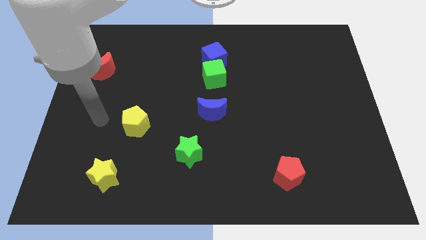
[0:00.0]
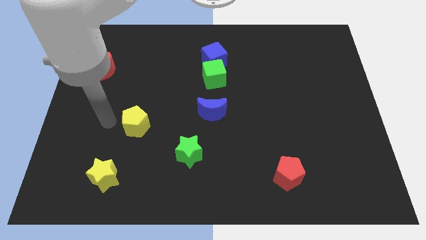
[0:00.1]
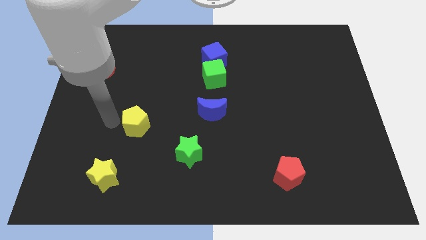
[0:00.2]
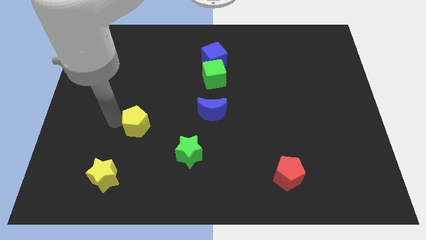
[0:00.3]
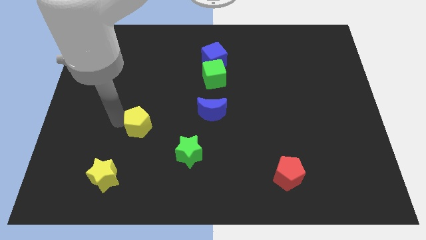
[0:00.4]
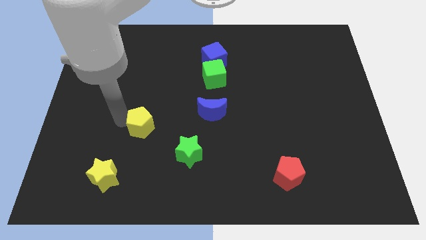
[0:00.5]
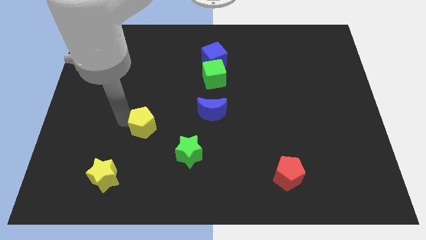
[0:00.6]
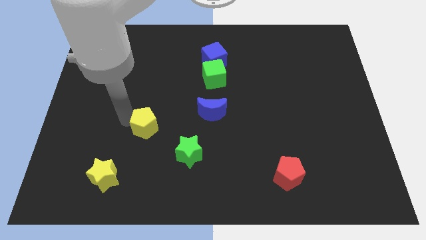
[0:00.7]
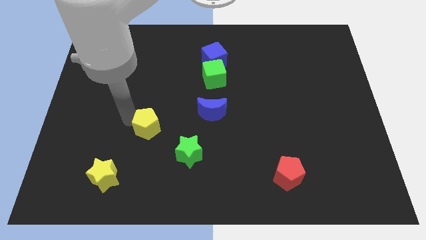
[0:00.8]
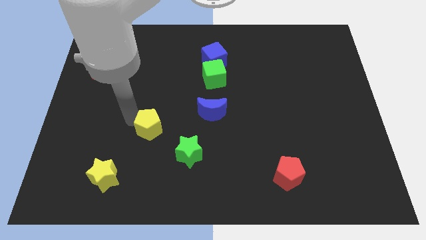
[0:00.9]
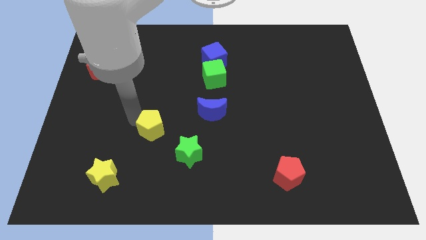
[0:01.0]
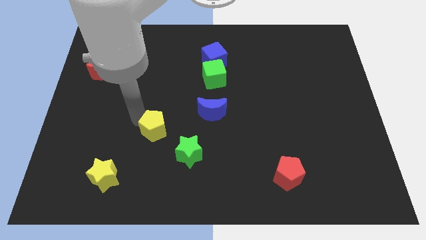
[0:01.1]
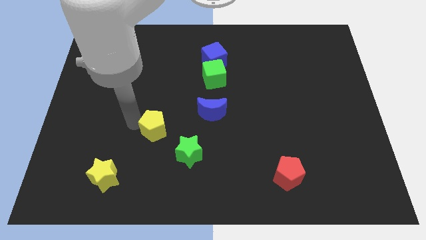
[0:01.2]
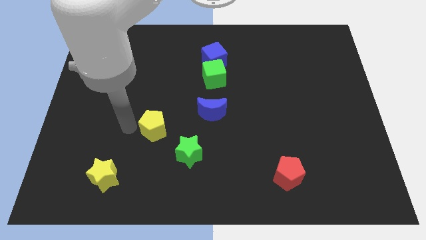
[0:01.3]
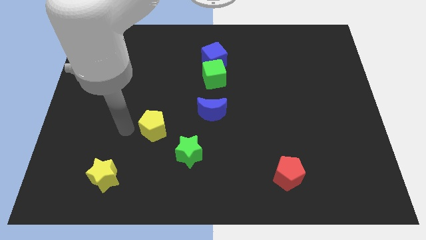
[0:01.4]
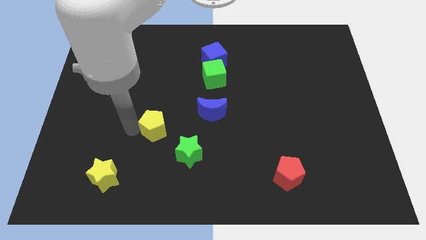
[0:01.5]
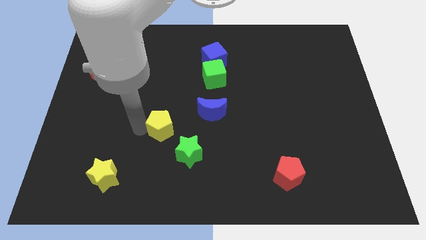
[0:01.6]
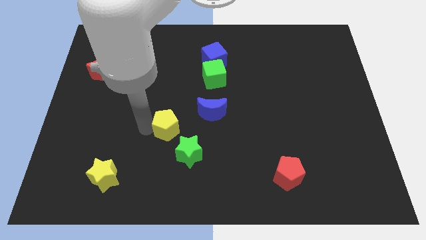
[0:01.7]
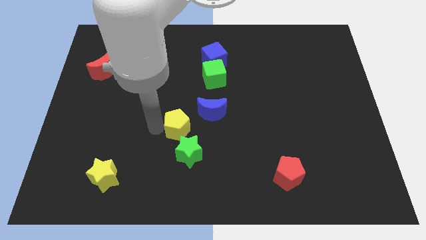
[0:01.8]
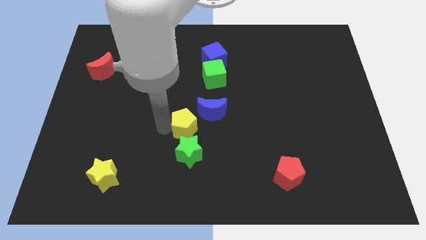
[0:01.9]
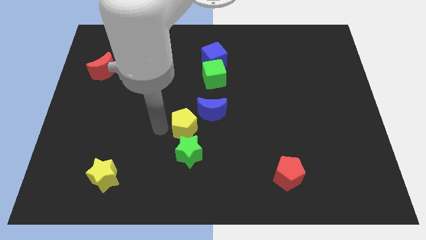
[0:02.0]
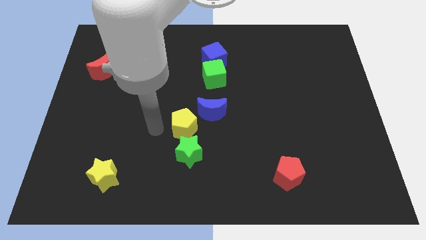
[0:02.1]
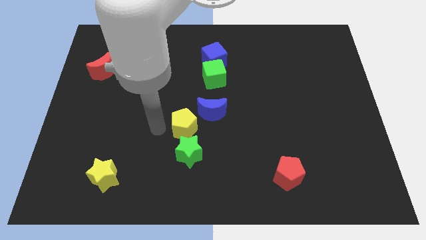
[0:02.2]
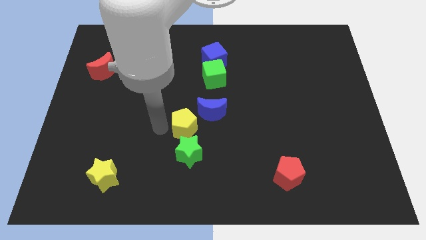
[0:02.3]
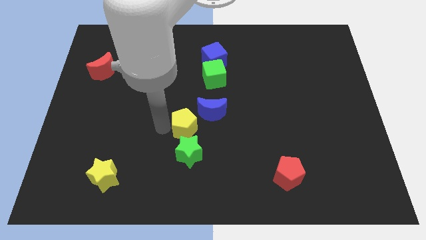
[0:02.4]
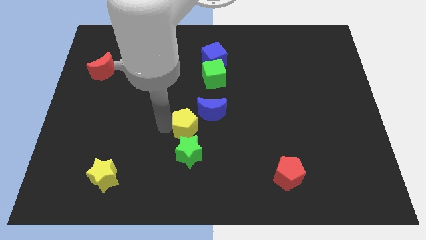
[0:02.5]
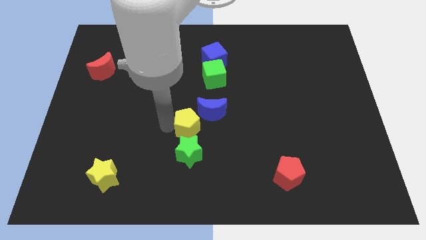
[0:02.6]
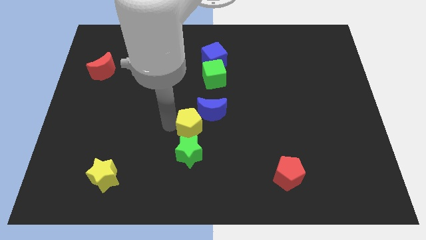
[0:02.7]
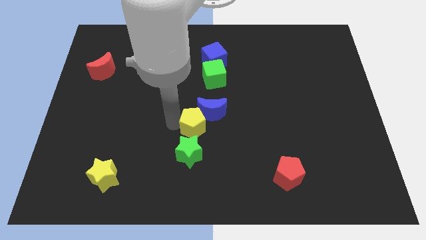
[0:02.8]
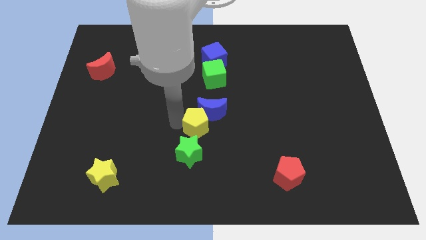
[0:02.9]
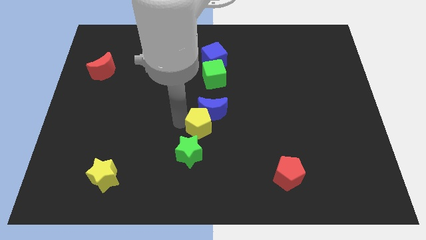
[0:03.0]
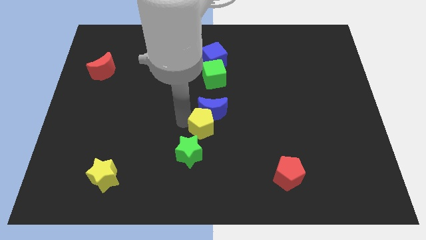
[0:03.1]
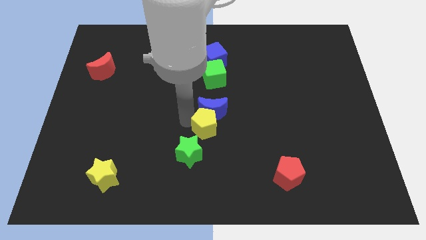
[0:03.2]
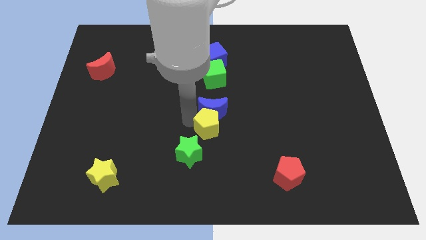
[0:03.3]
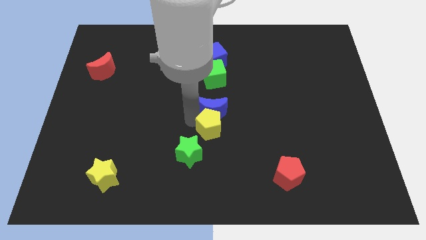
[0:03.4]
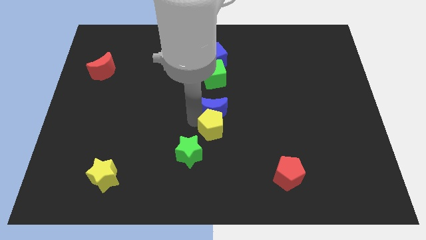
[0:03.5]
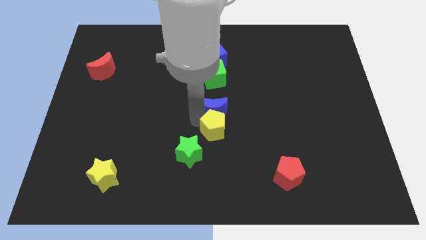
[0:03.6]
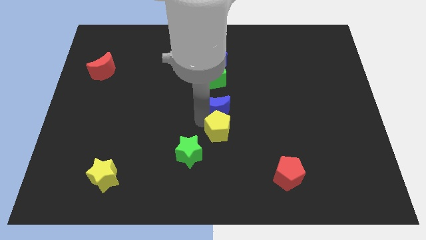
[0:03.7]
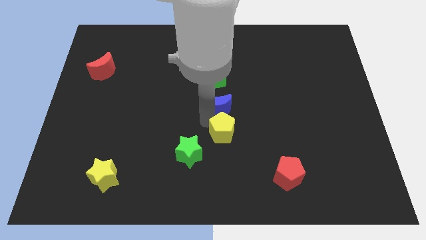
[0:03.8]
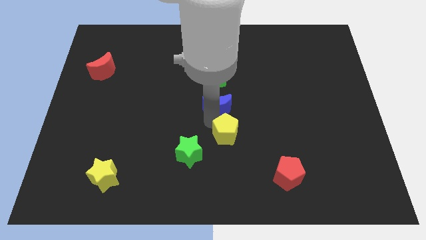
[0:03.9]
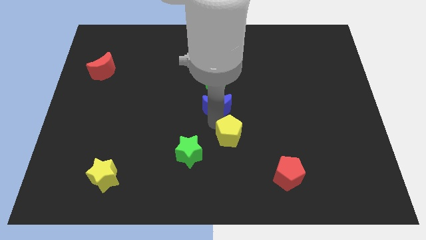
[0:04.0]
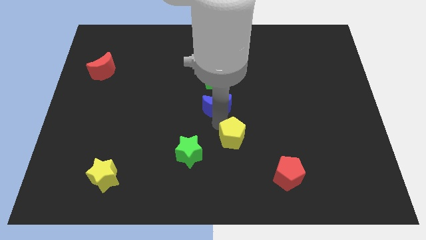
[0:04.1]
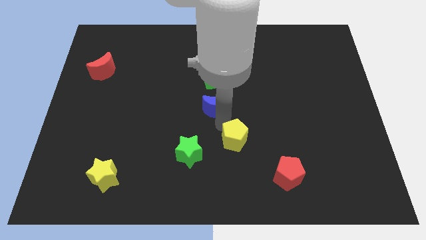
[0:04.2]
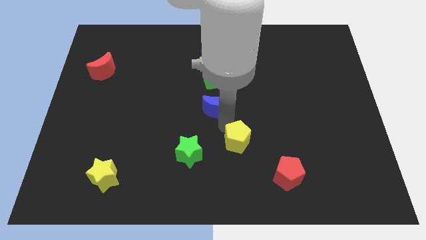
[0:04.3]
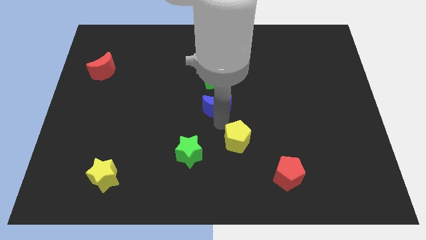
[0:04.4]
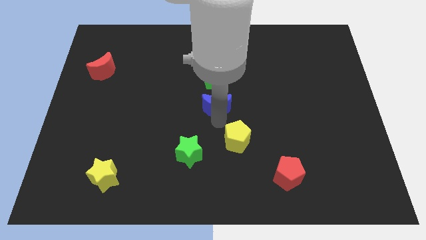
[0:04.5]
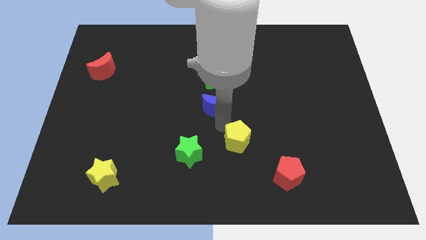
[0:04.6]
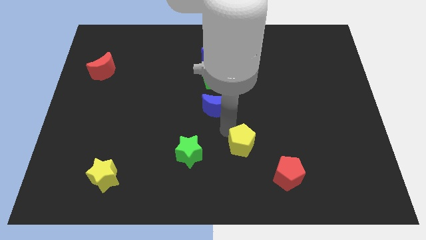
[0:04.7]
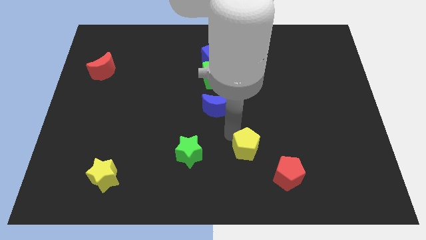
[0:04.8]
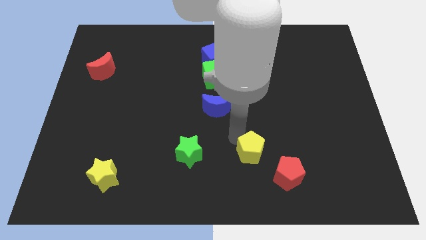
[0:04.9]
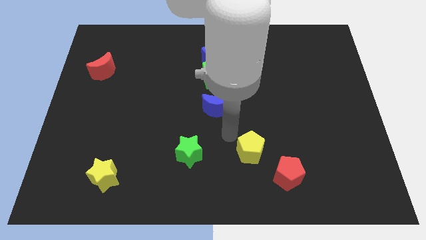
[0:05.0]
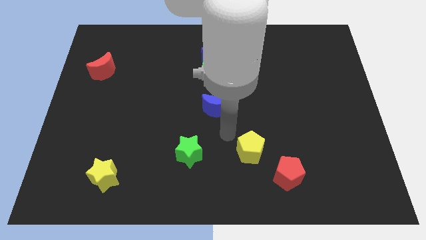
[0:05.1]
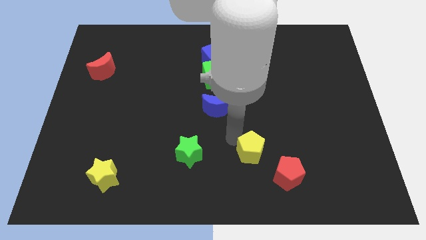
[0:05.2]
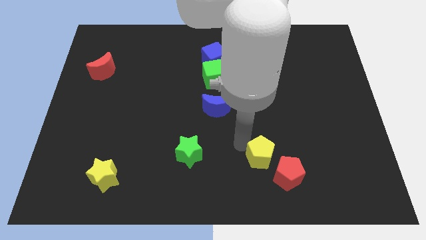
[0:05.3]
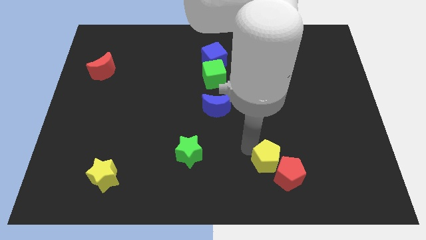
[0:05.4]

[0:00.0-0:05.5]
push the yellow pentagon towards the red pentagon

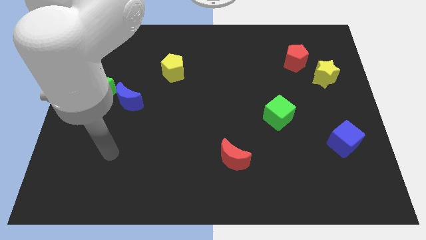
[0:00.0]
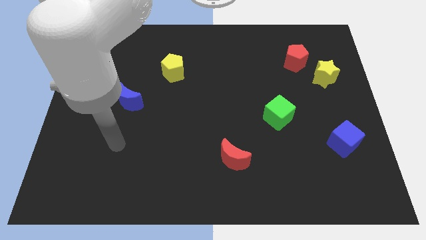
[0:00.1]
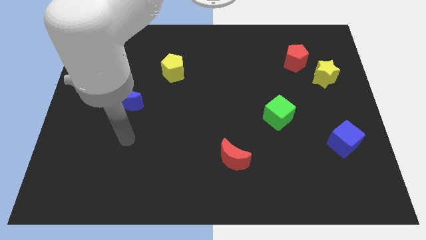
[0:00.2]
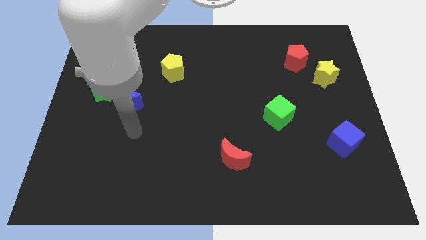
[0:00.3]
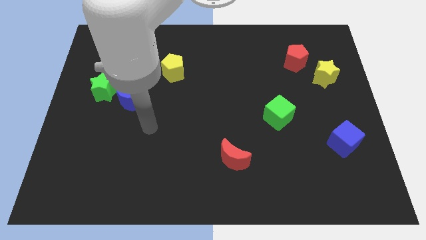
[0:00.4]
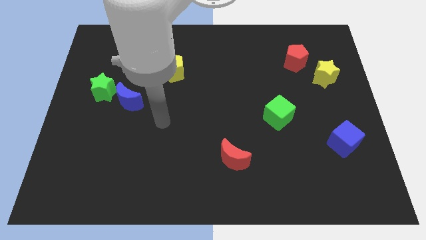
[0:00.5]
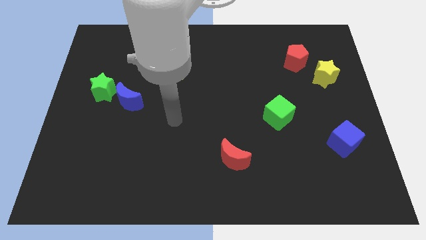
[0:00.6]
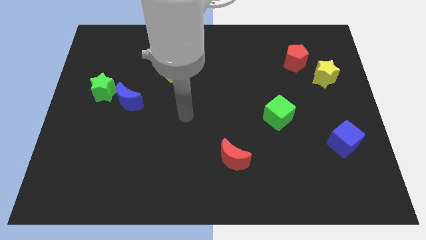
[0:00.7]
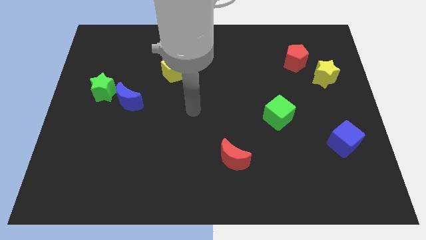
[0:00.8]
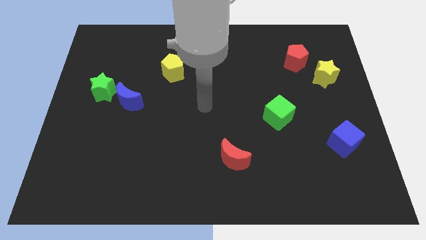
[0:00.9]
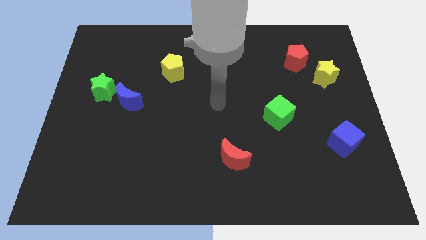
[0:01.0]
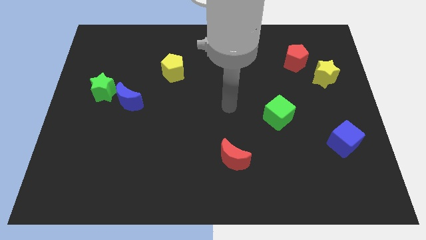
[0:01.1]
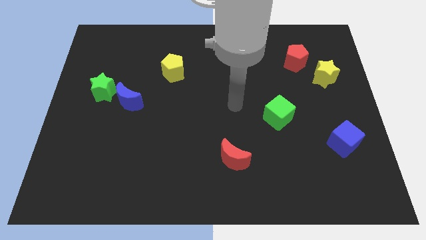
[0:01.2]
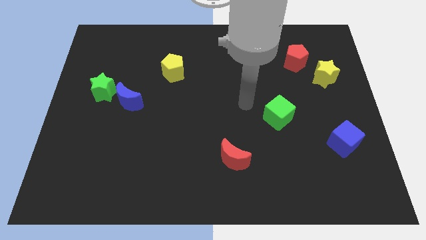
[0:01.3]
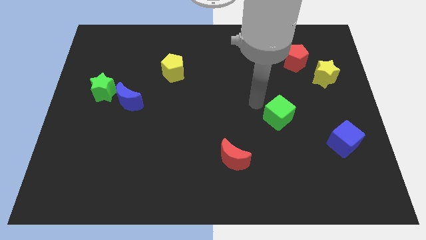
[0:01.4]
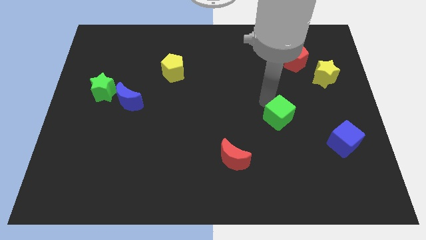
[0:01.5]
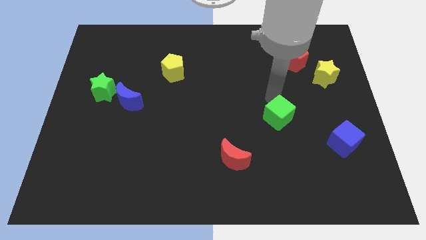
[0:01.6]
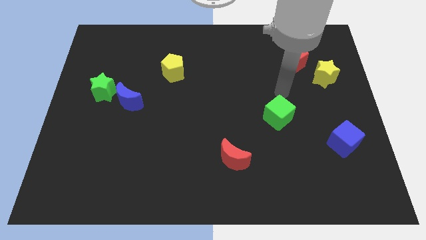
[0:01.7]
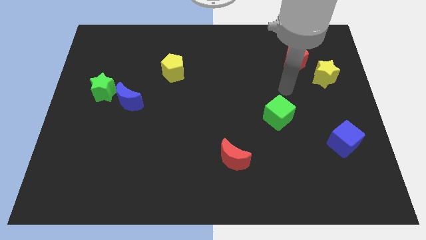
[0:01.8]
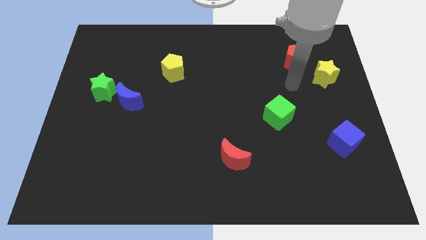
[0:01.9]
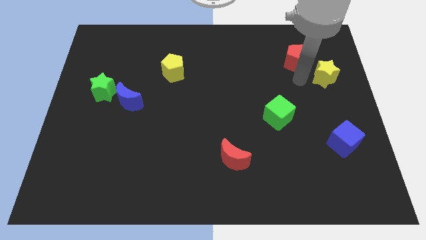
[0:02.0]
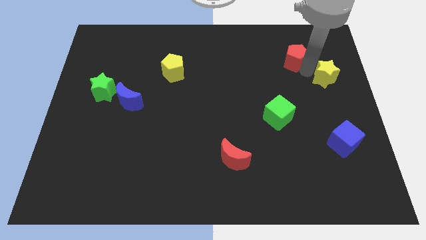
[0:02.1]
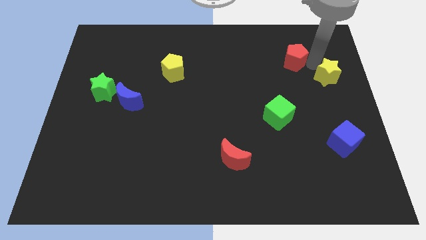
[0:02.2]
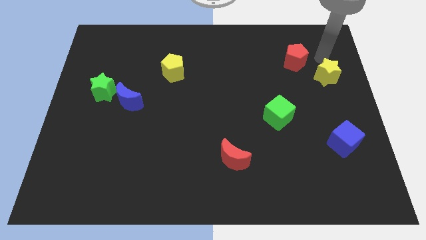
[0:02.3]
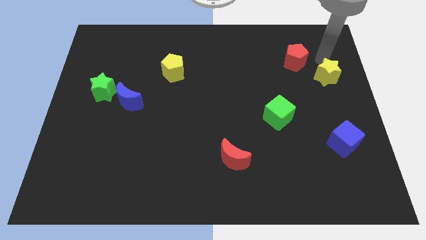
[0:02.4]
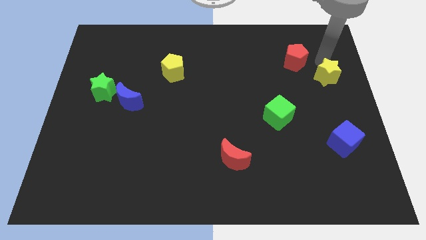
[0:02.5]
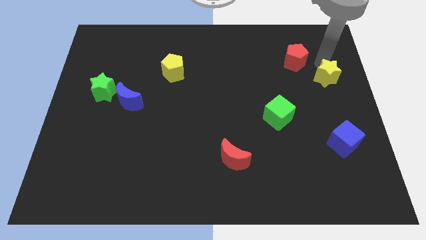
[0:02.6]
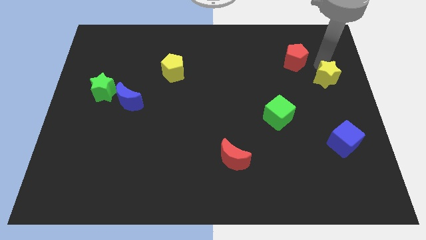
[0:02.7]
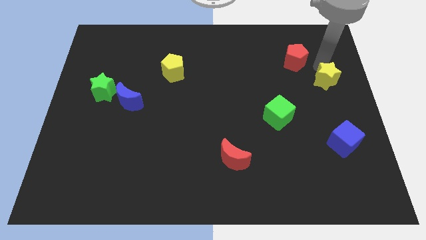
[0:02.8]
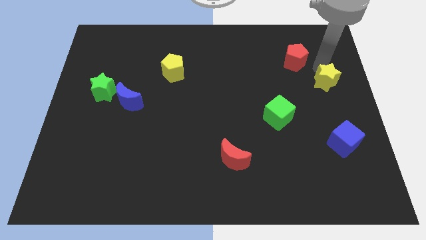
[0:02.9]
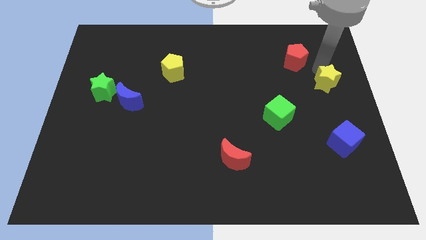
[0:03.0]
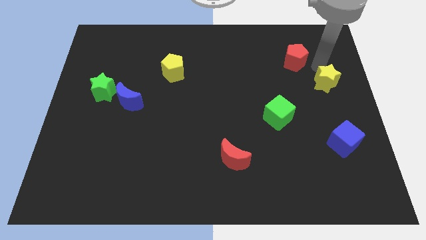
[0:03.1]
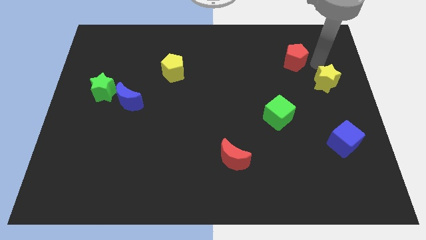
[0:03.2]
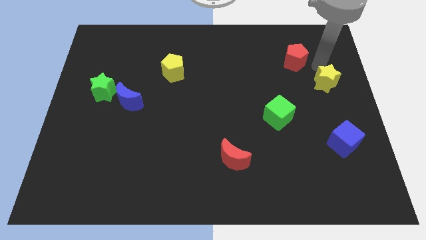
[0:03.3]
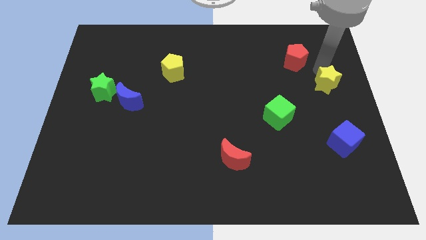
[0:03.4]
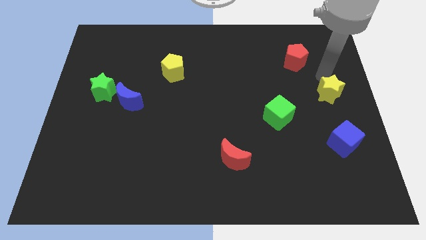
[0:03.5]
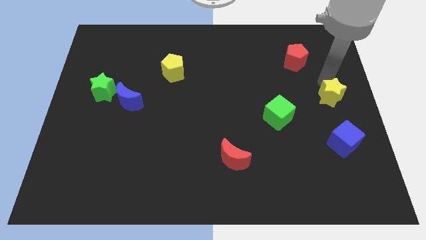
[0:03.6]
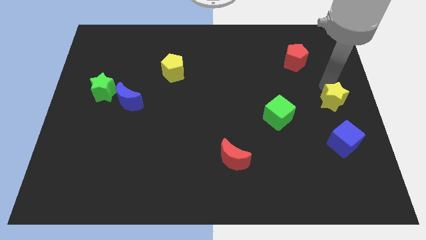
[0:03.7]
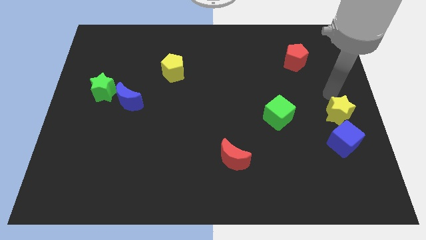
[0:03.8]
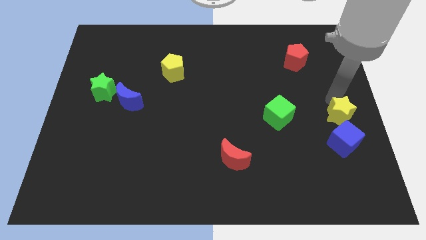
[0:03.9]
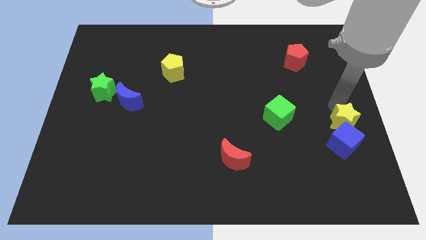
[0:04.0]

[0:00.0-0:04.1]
move the yellow star towards the blue cube
